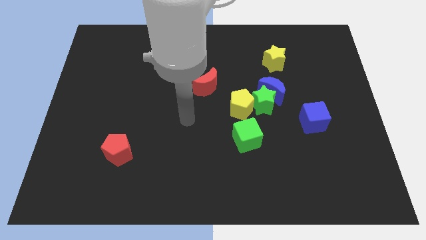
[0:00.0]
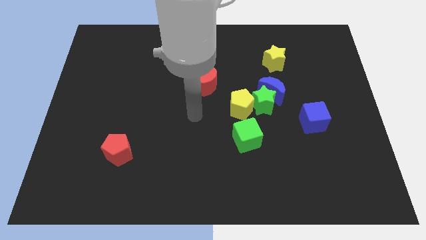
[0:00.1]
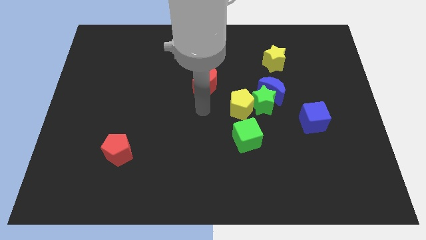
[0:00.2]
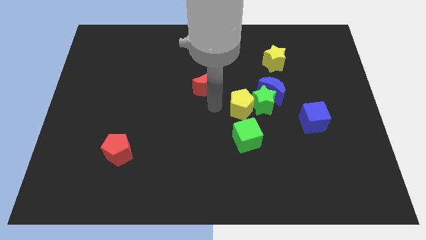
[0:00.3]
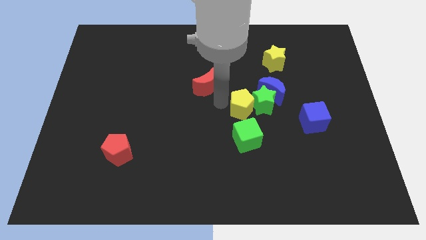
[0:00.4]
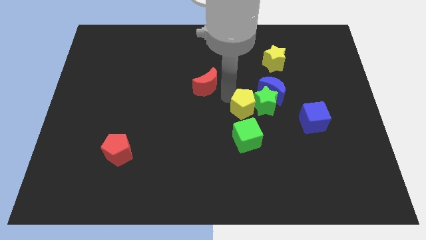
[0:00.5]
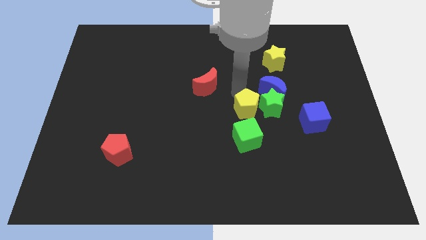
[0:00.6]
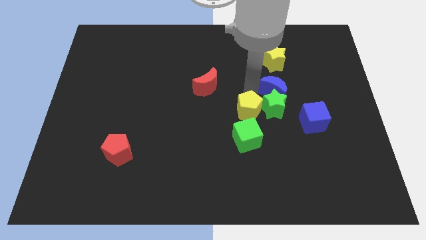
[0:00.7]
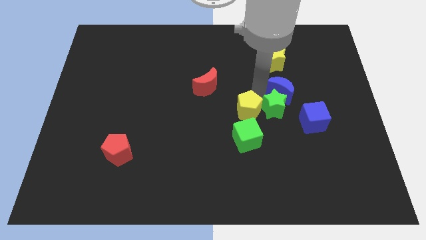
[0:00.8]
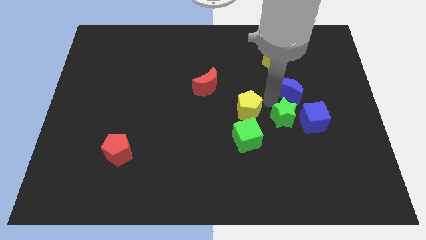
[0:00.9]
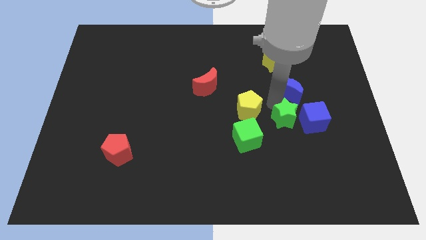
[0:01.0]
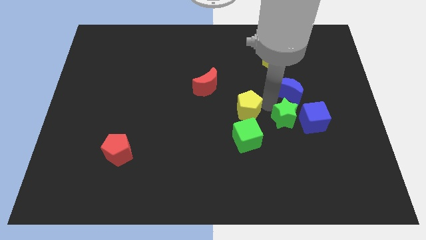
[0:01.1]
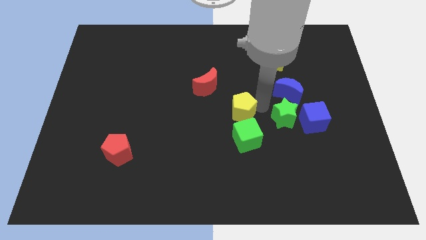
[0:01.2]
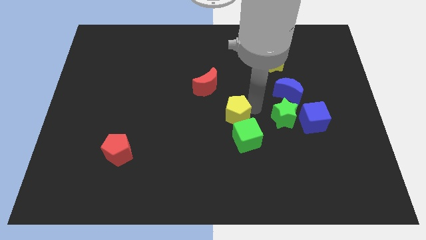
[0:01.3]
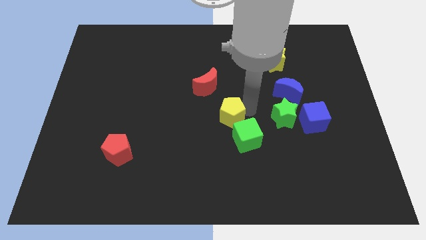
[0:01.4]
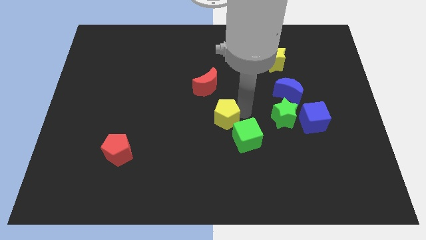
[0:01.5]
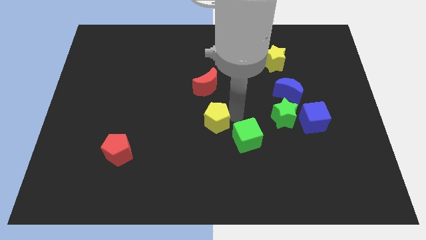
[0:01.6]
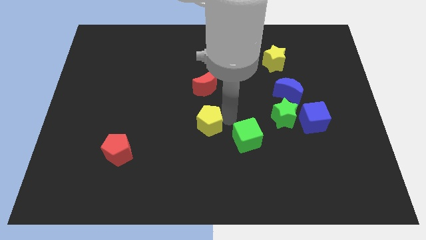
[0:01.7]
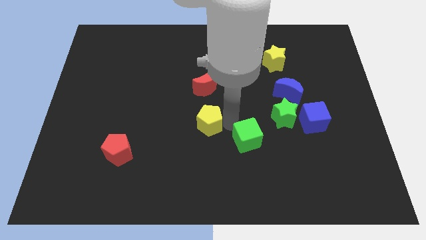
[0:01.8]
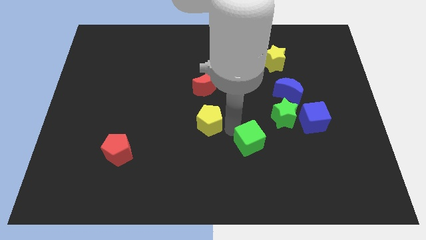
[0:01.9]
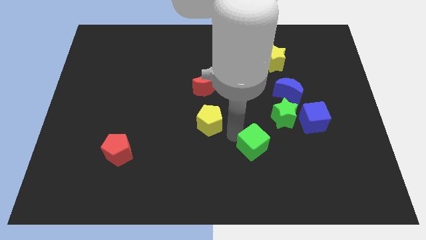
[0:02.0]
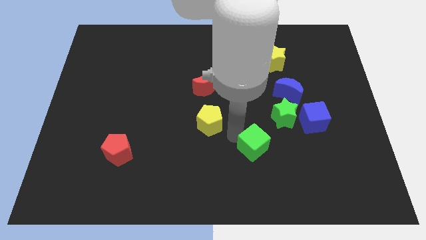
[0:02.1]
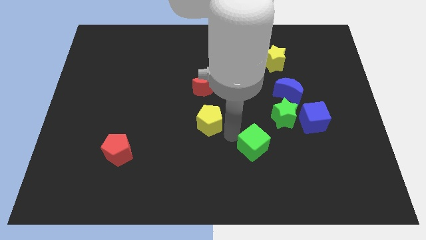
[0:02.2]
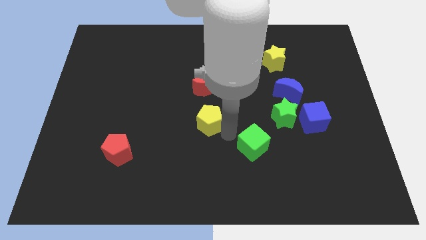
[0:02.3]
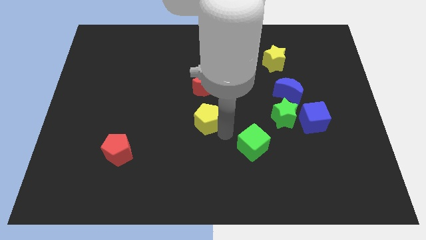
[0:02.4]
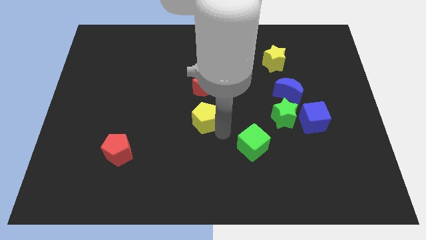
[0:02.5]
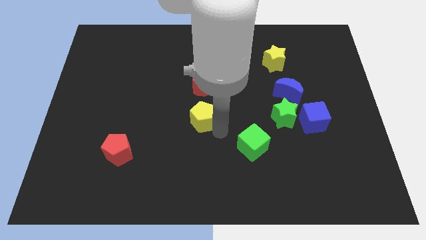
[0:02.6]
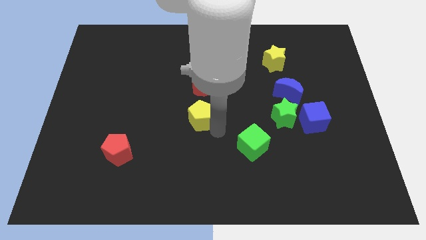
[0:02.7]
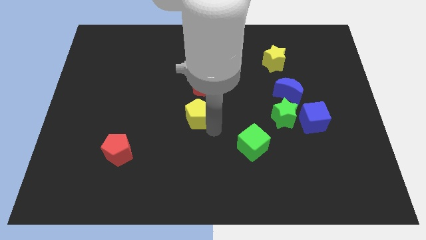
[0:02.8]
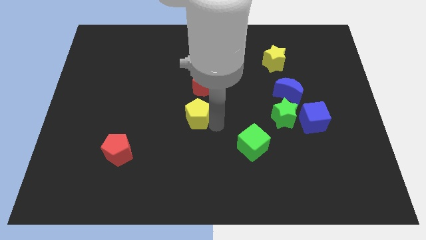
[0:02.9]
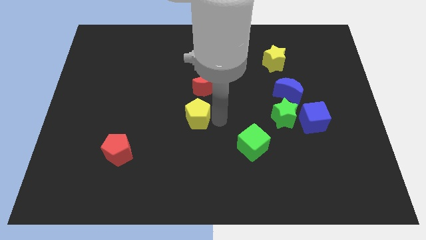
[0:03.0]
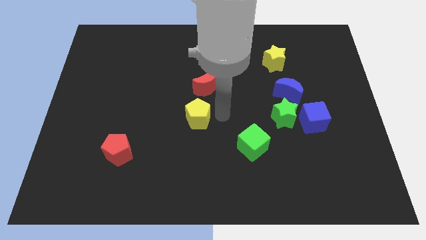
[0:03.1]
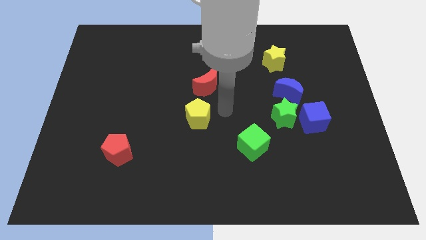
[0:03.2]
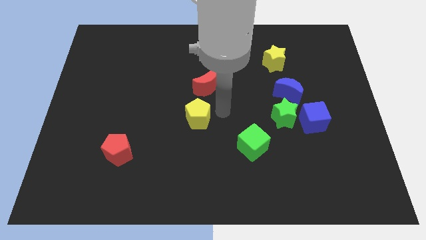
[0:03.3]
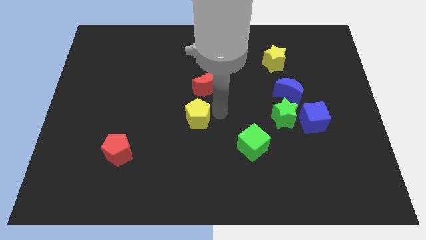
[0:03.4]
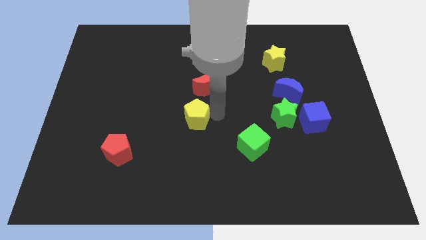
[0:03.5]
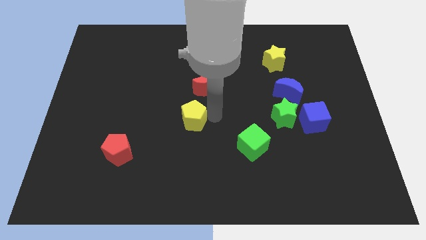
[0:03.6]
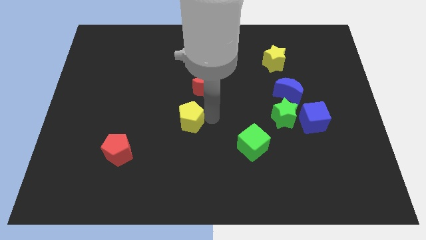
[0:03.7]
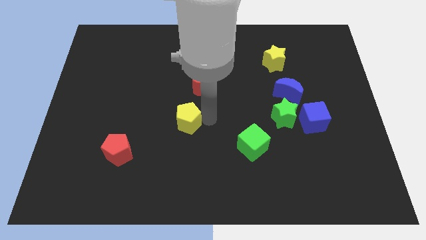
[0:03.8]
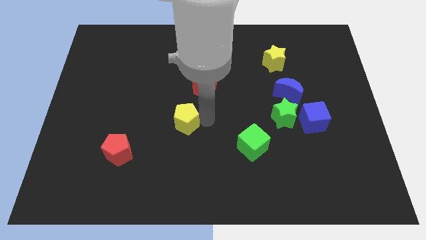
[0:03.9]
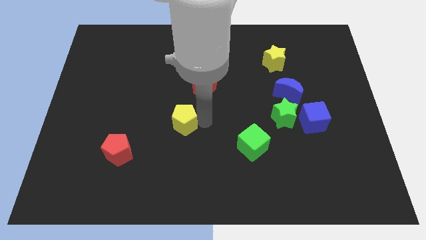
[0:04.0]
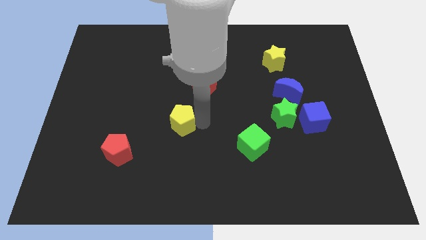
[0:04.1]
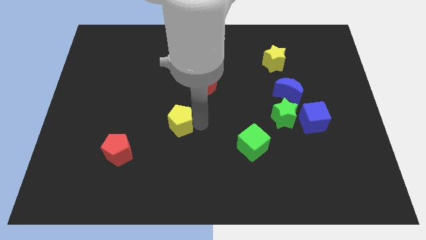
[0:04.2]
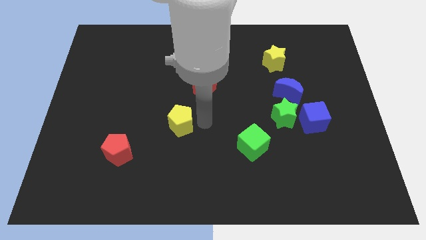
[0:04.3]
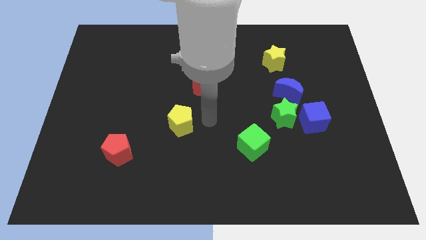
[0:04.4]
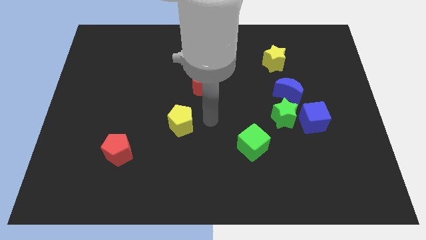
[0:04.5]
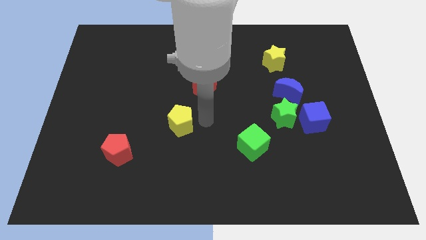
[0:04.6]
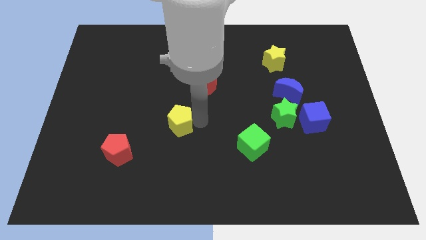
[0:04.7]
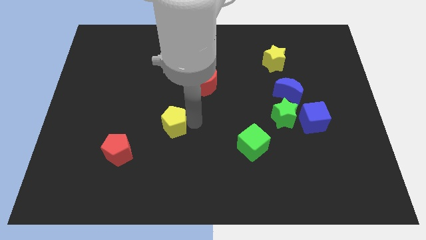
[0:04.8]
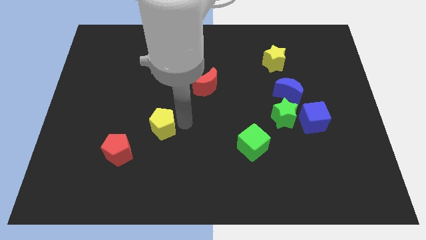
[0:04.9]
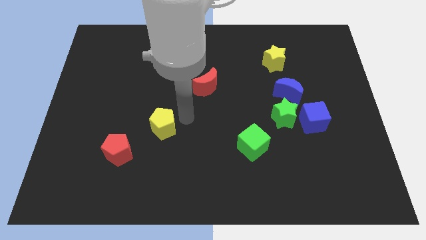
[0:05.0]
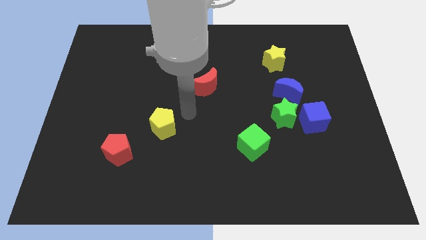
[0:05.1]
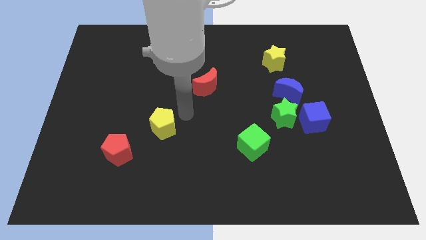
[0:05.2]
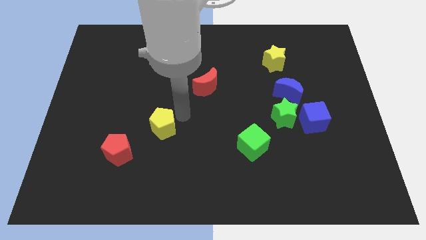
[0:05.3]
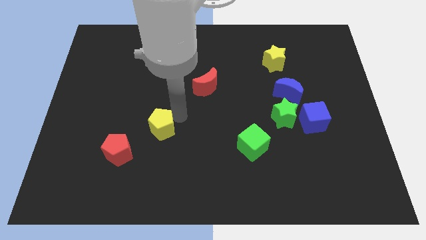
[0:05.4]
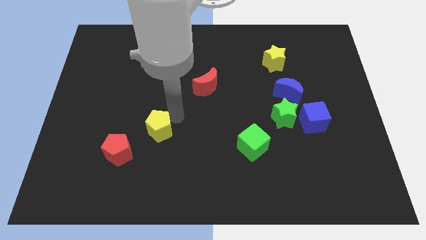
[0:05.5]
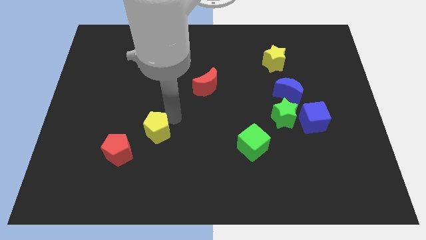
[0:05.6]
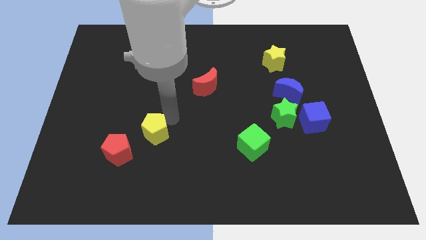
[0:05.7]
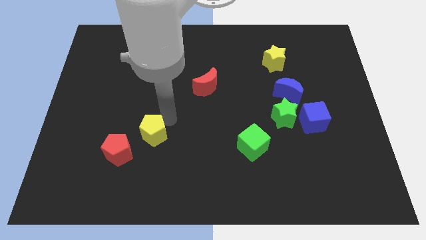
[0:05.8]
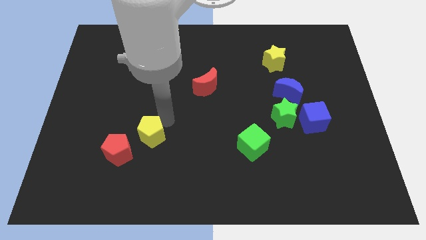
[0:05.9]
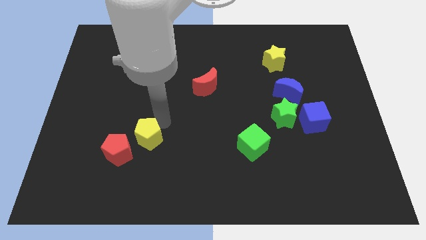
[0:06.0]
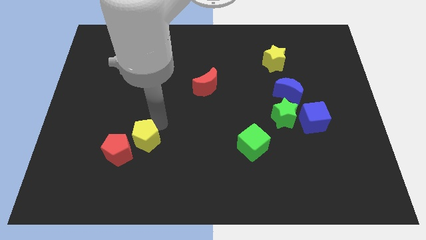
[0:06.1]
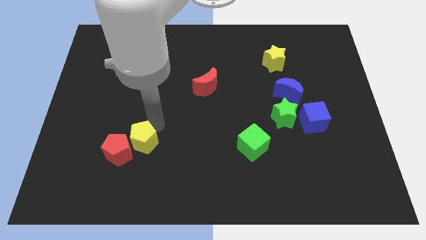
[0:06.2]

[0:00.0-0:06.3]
push the yellow pentagon next to the red pentagon

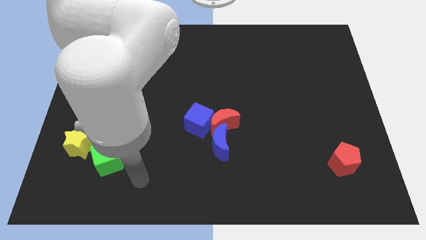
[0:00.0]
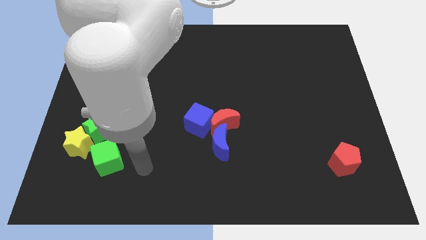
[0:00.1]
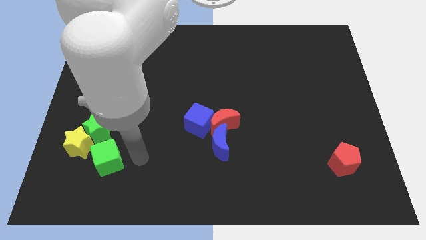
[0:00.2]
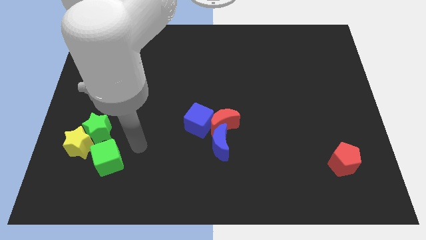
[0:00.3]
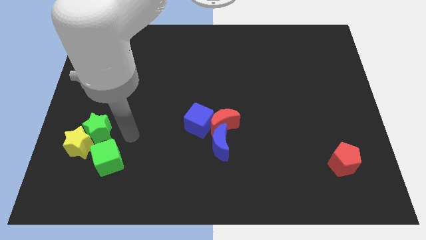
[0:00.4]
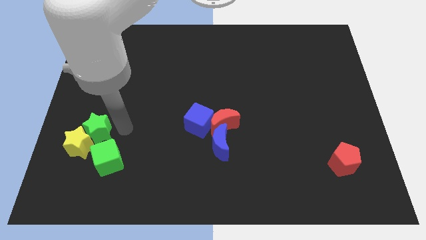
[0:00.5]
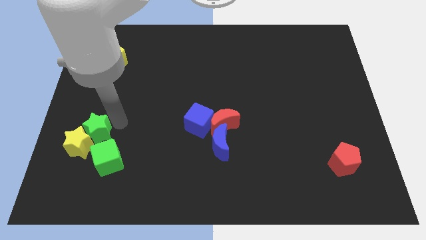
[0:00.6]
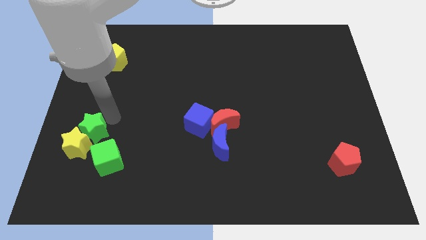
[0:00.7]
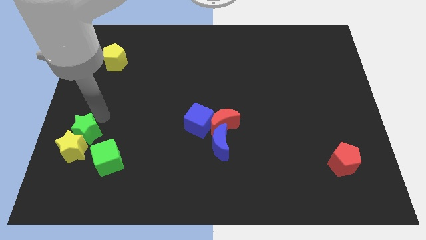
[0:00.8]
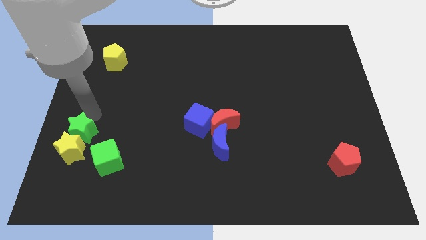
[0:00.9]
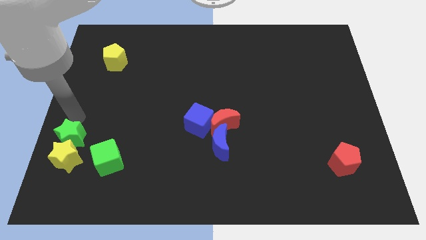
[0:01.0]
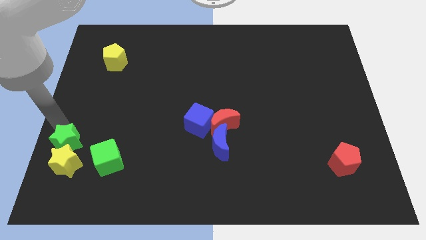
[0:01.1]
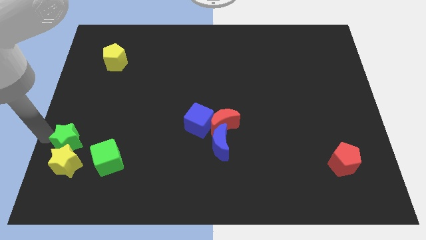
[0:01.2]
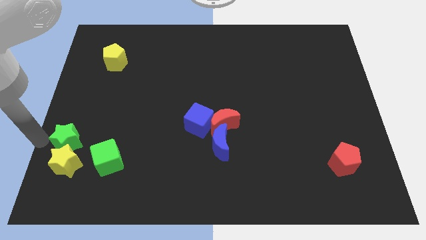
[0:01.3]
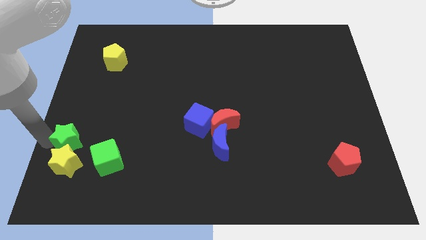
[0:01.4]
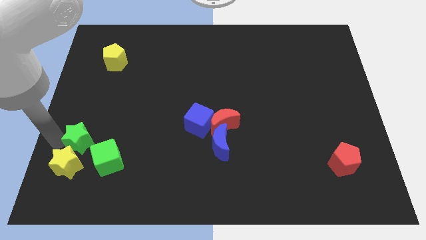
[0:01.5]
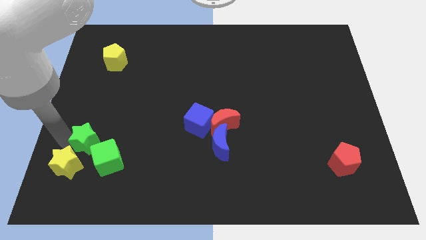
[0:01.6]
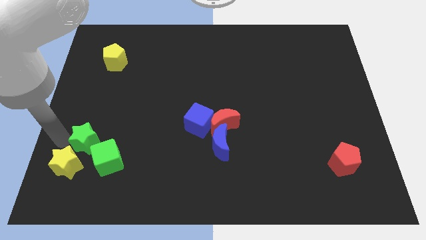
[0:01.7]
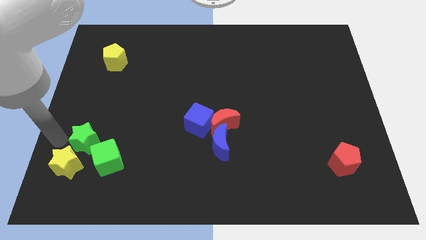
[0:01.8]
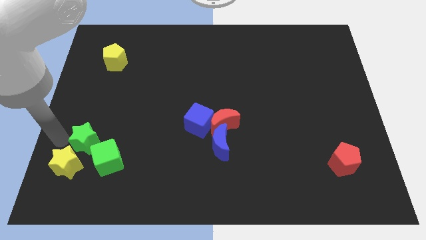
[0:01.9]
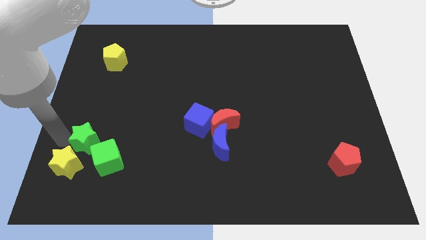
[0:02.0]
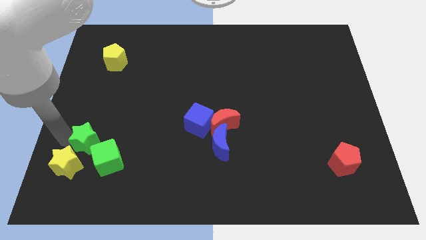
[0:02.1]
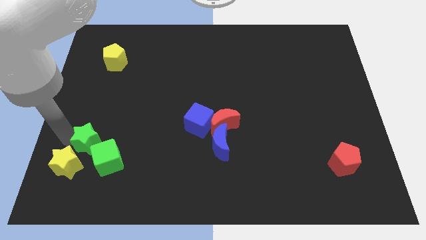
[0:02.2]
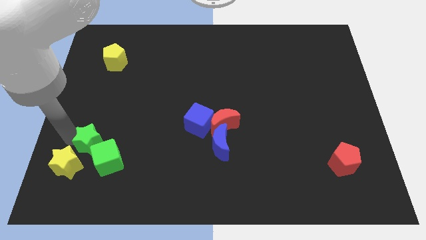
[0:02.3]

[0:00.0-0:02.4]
move the green star to the green cube
